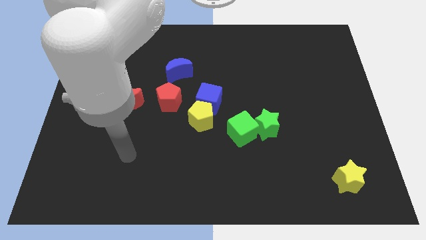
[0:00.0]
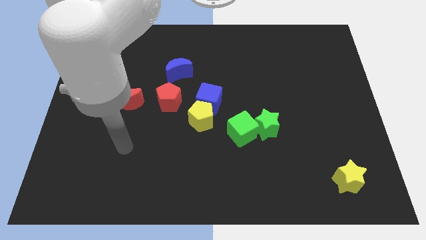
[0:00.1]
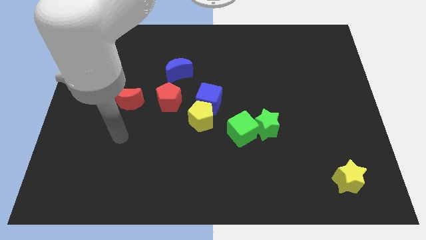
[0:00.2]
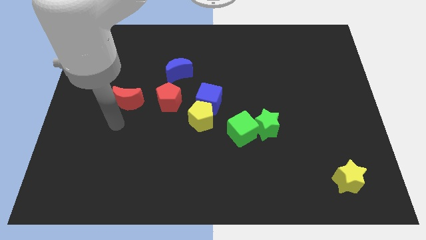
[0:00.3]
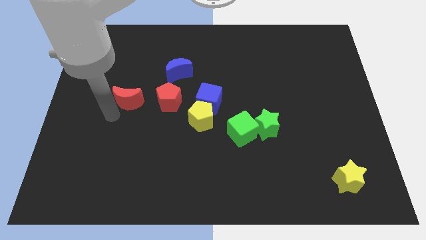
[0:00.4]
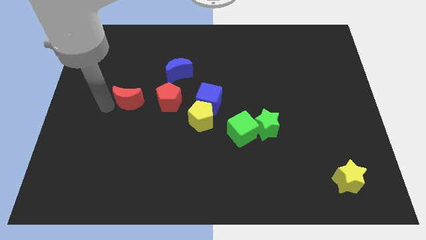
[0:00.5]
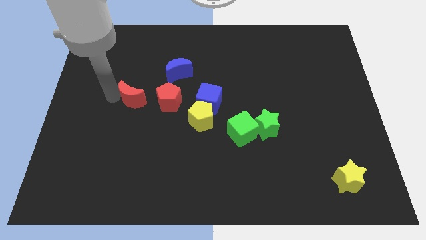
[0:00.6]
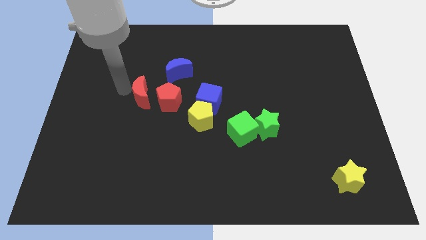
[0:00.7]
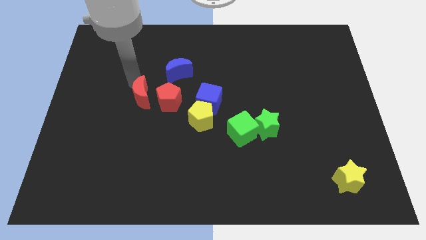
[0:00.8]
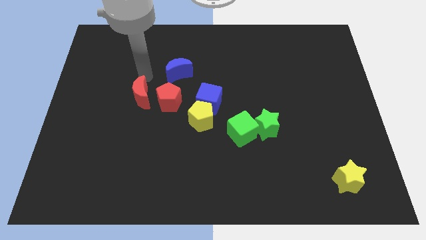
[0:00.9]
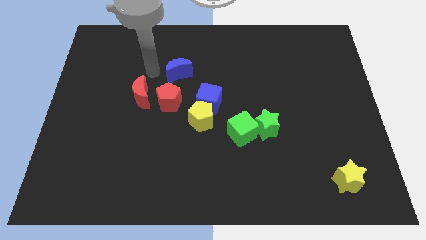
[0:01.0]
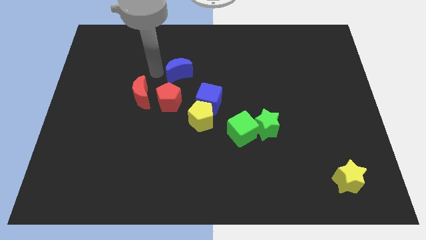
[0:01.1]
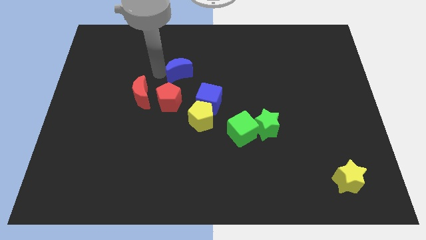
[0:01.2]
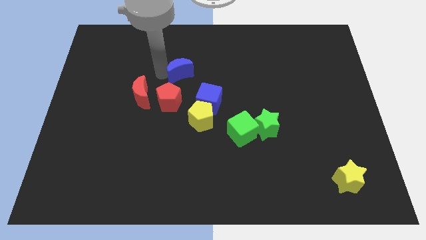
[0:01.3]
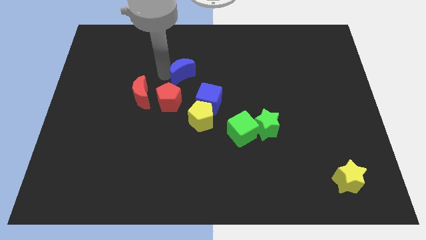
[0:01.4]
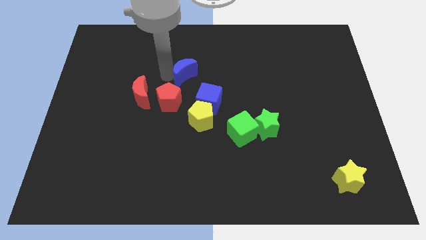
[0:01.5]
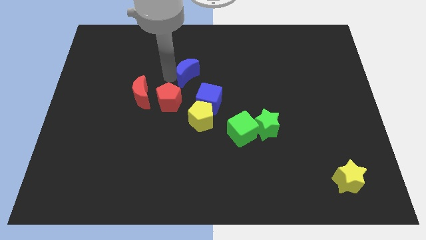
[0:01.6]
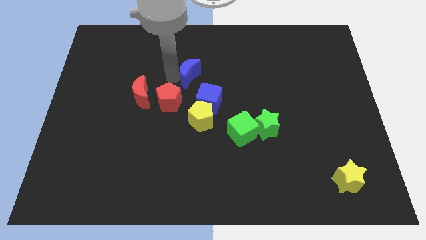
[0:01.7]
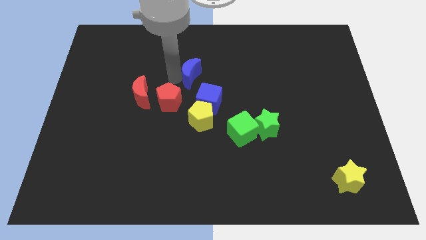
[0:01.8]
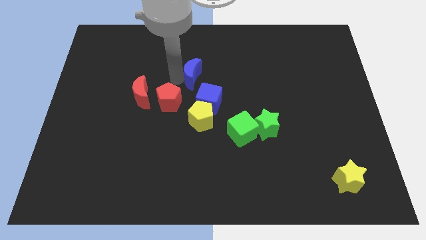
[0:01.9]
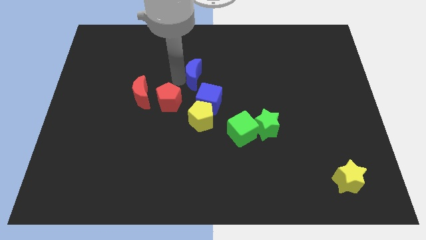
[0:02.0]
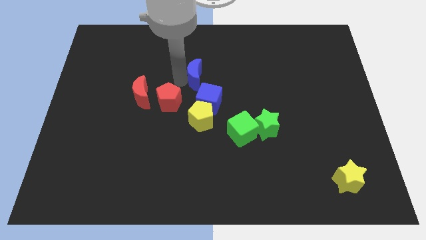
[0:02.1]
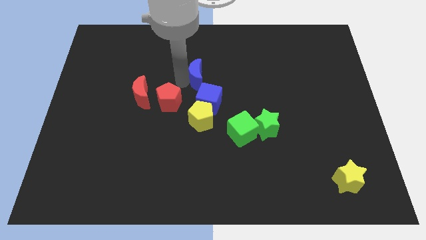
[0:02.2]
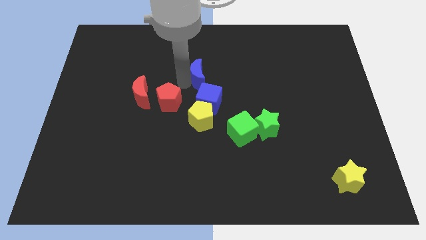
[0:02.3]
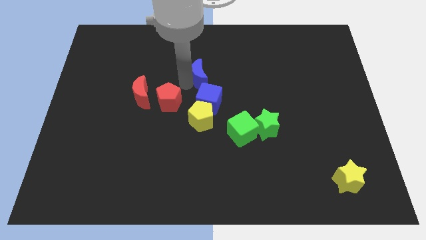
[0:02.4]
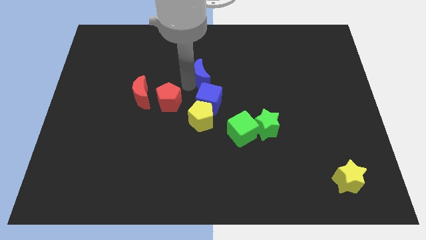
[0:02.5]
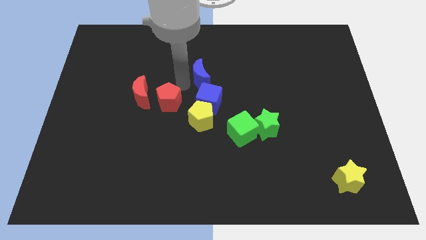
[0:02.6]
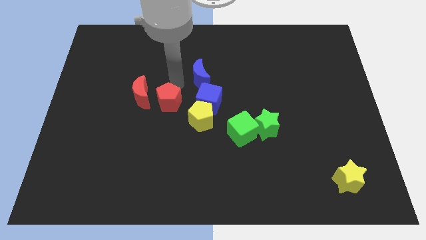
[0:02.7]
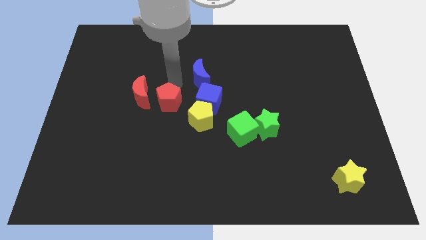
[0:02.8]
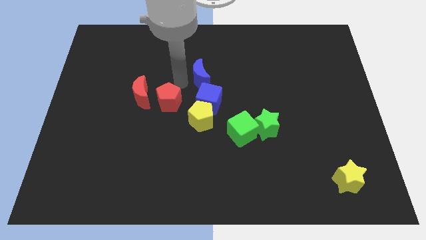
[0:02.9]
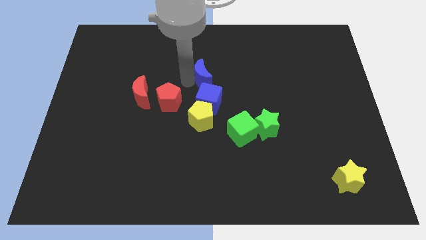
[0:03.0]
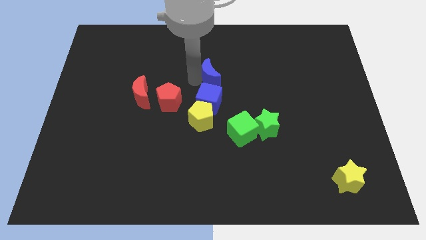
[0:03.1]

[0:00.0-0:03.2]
slide the blue moon a bit to the right

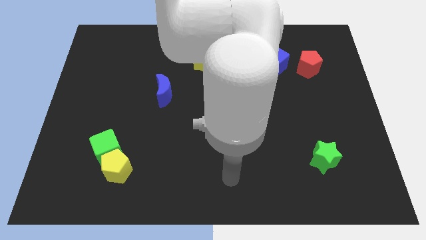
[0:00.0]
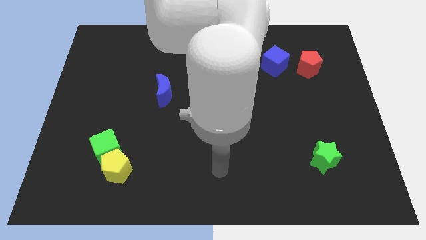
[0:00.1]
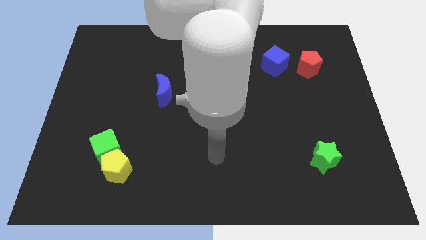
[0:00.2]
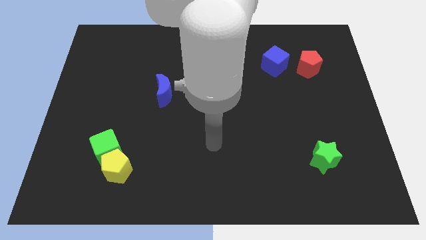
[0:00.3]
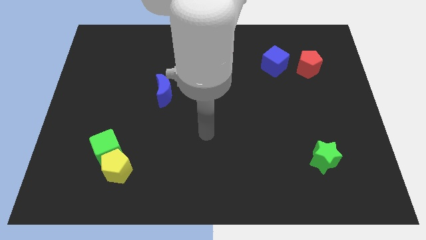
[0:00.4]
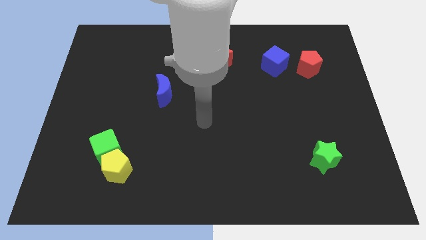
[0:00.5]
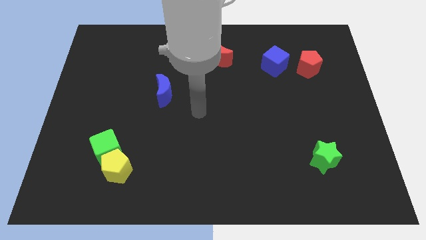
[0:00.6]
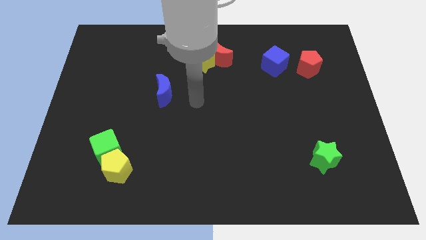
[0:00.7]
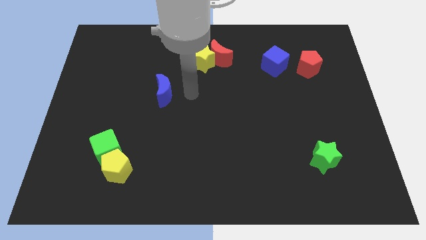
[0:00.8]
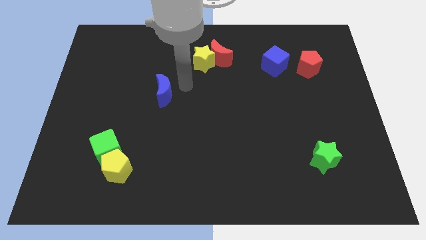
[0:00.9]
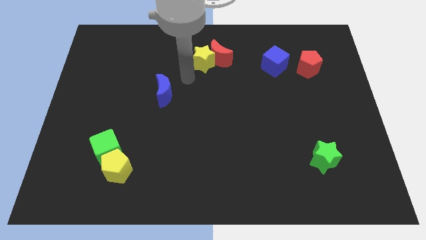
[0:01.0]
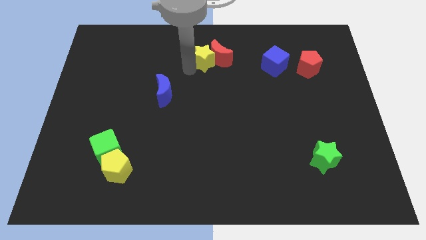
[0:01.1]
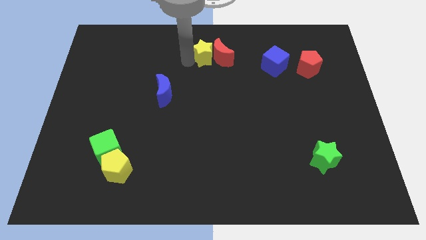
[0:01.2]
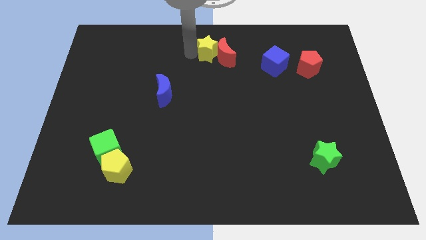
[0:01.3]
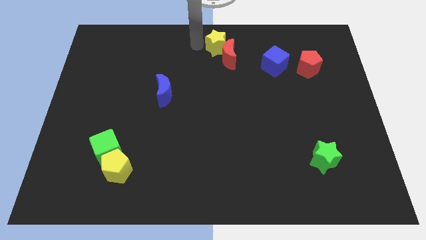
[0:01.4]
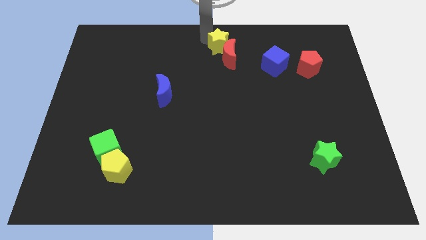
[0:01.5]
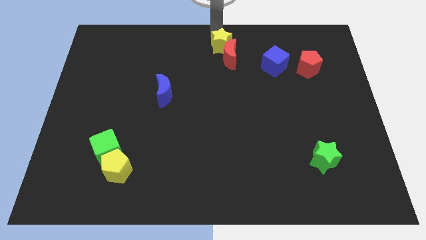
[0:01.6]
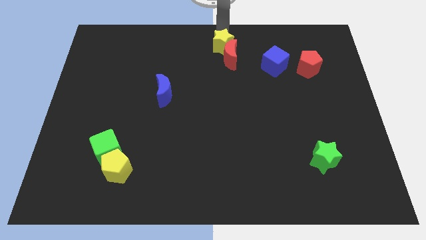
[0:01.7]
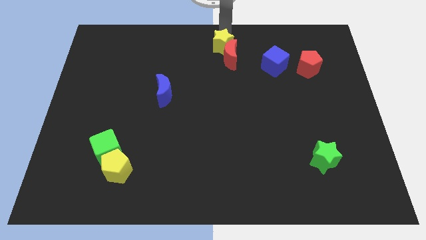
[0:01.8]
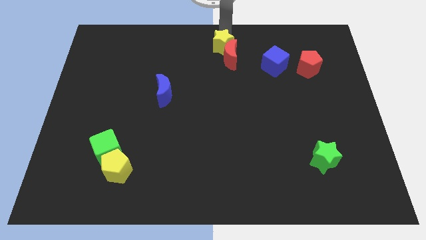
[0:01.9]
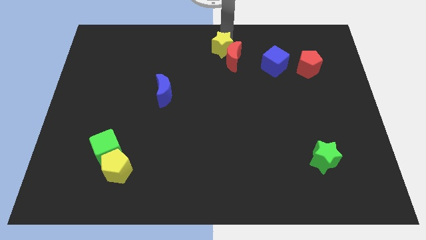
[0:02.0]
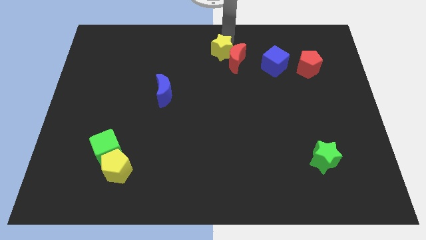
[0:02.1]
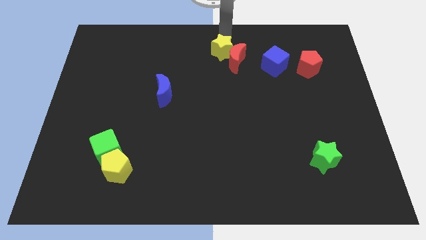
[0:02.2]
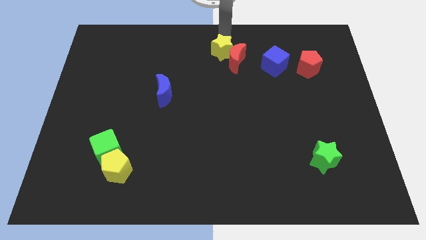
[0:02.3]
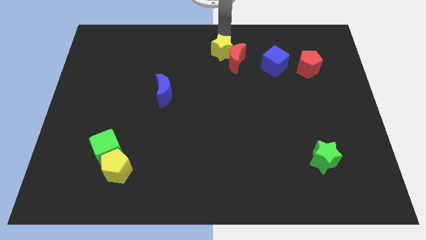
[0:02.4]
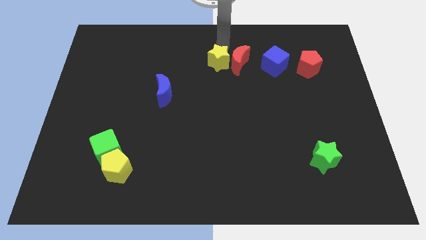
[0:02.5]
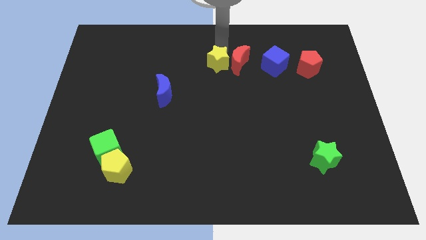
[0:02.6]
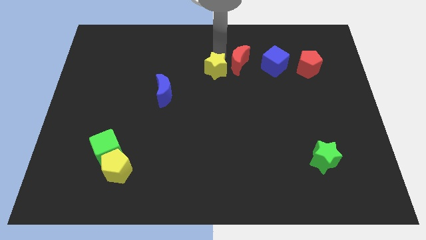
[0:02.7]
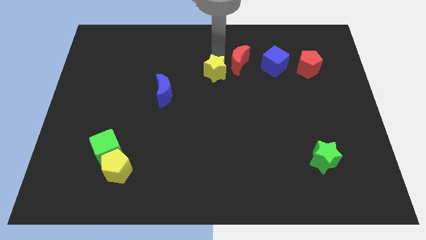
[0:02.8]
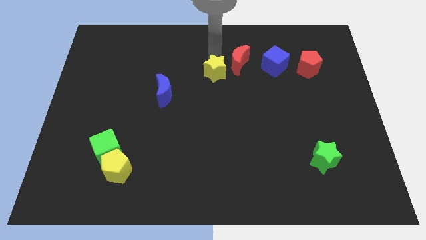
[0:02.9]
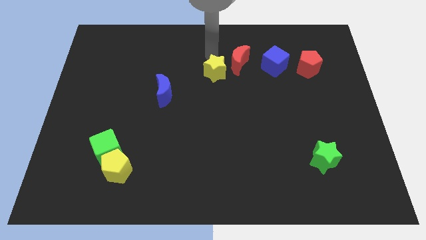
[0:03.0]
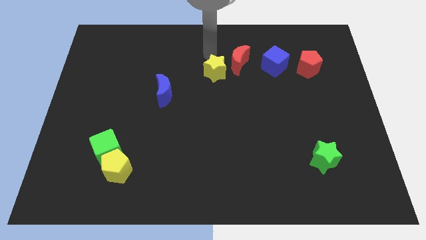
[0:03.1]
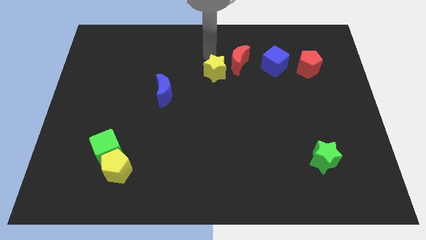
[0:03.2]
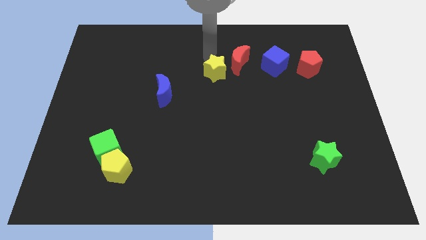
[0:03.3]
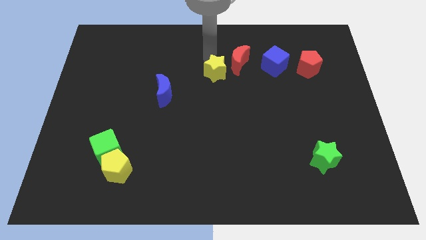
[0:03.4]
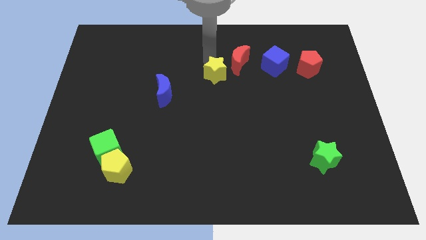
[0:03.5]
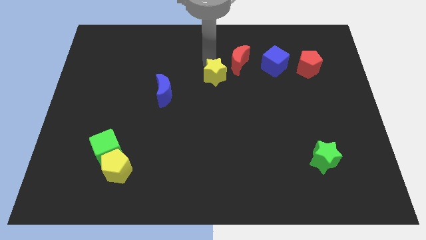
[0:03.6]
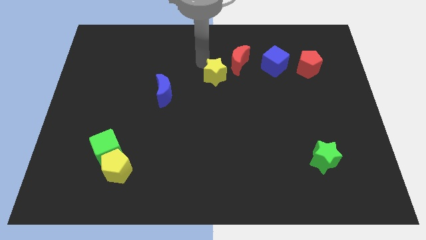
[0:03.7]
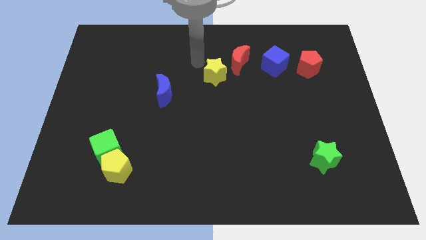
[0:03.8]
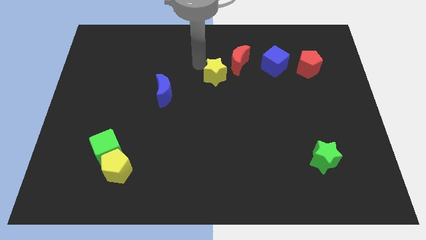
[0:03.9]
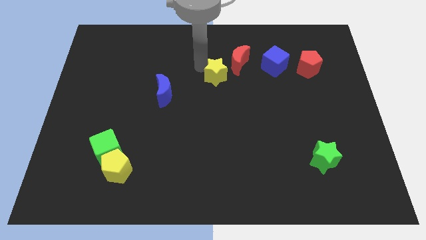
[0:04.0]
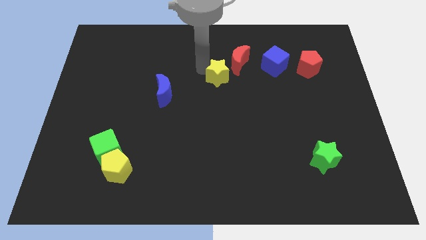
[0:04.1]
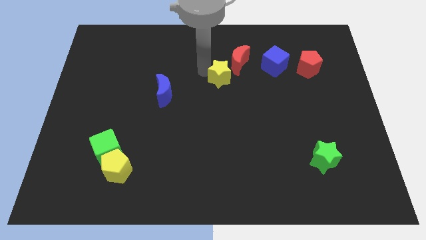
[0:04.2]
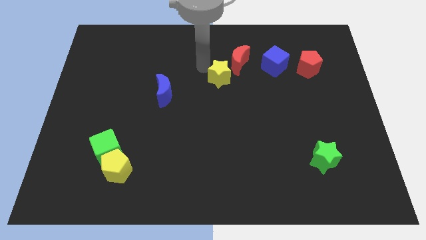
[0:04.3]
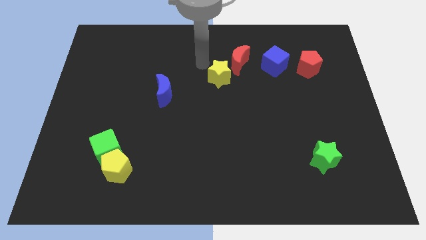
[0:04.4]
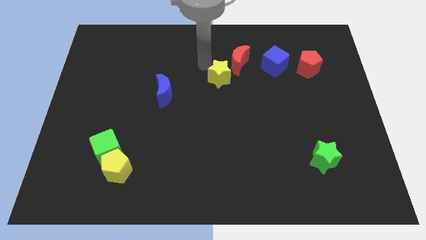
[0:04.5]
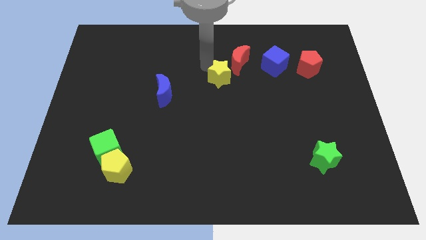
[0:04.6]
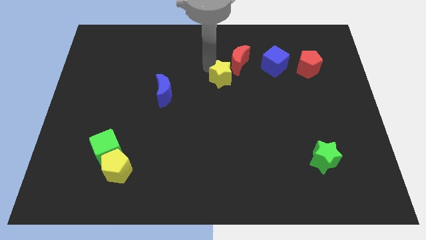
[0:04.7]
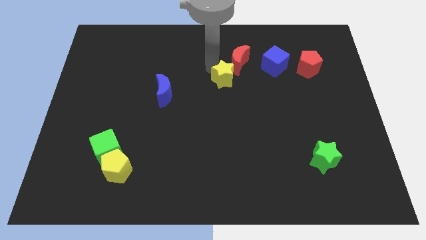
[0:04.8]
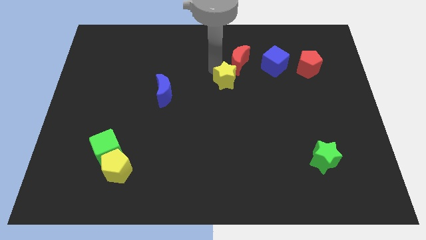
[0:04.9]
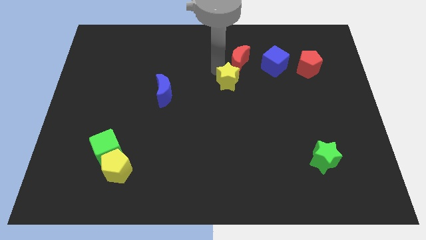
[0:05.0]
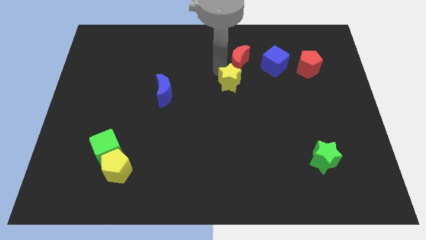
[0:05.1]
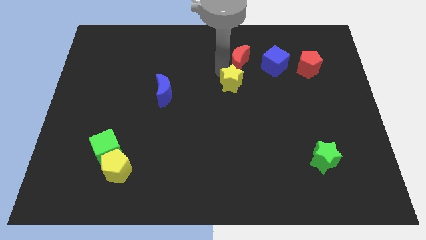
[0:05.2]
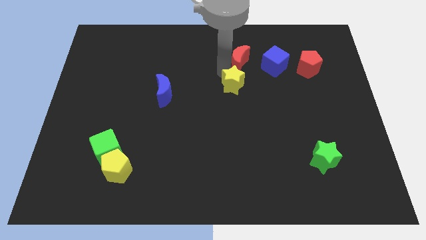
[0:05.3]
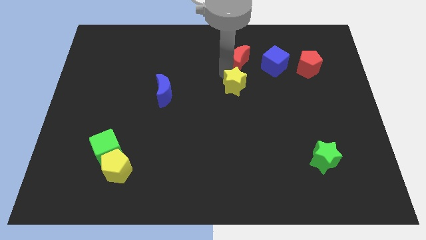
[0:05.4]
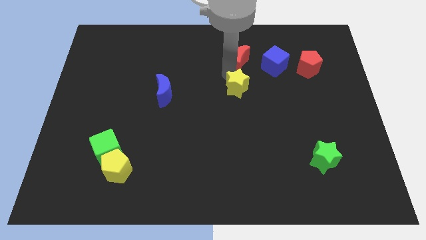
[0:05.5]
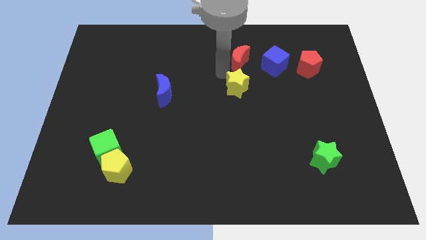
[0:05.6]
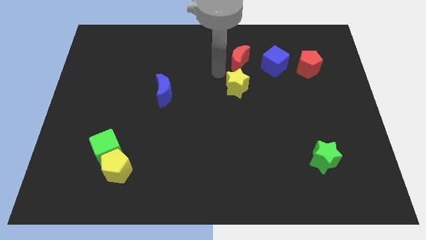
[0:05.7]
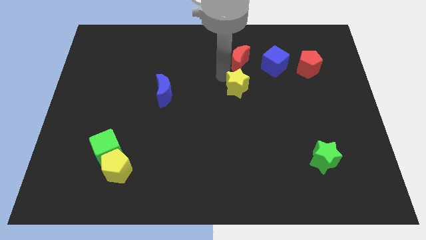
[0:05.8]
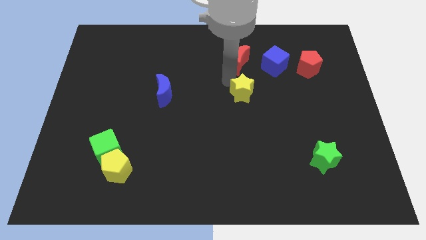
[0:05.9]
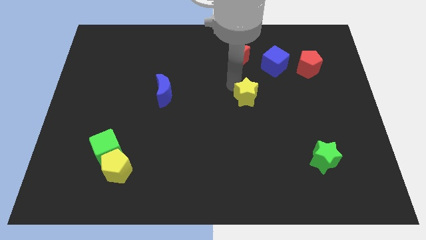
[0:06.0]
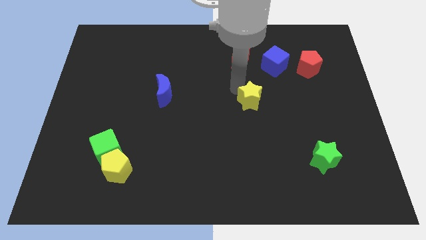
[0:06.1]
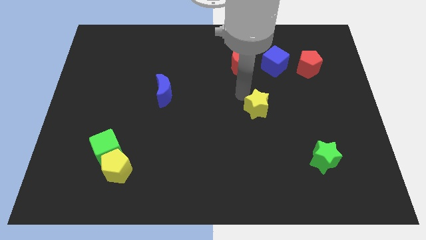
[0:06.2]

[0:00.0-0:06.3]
push the yellow star diagonally down and right
